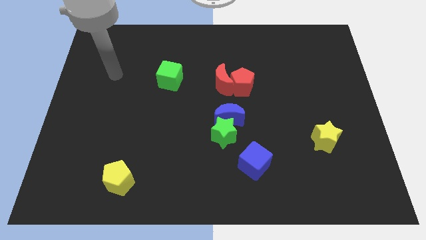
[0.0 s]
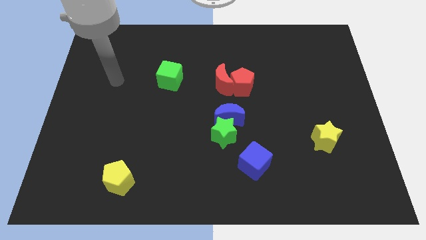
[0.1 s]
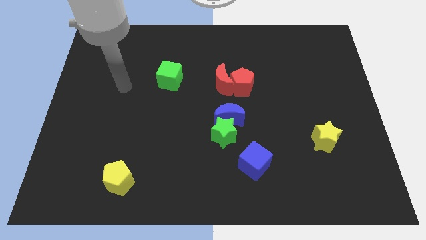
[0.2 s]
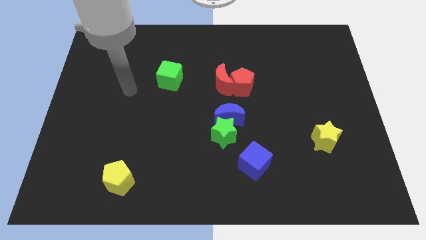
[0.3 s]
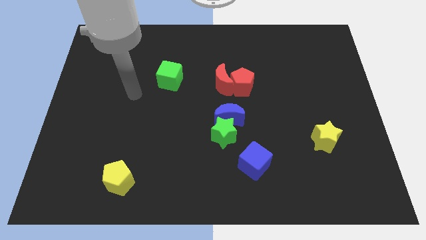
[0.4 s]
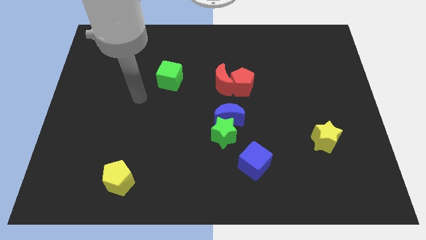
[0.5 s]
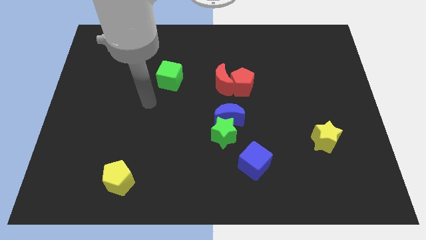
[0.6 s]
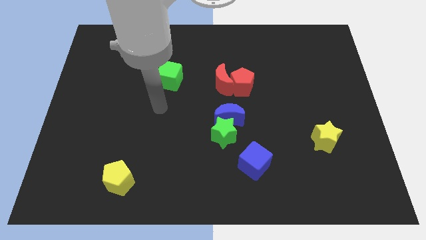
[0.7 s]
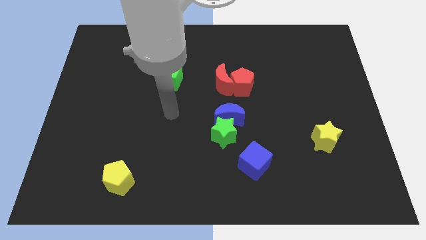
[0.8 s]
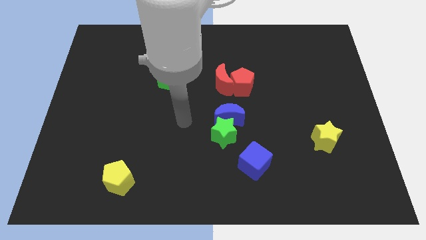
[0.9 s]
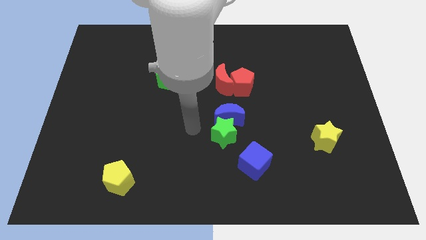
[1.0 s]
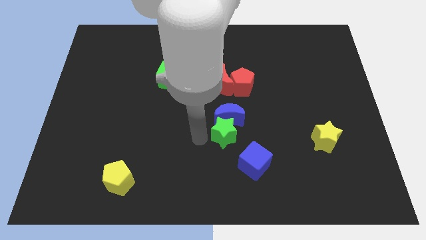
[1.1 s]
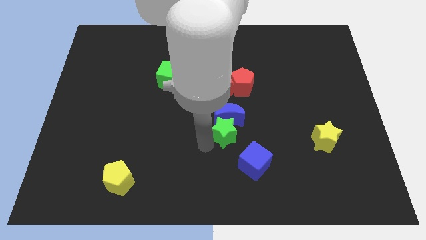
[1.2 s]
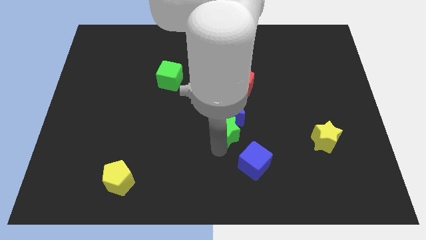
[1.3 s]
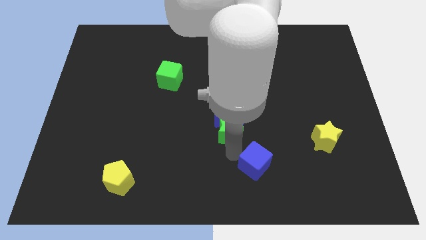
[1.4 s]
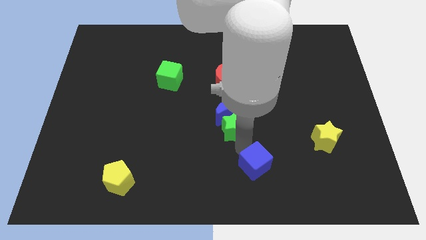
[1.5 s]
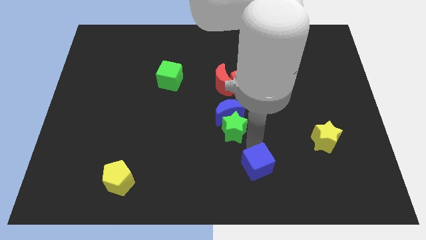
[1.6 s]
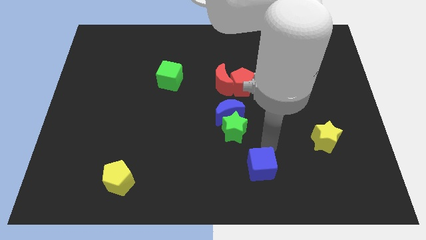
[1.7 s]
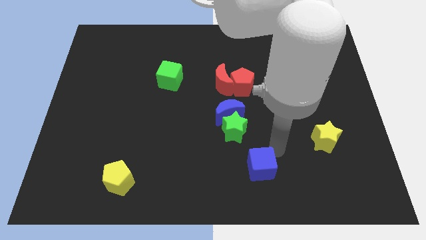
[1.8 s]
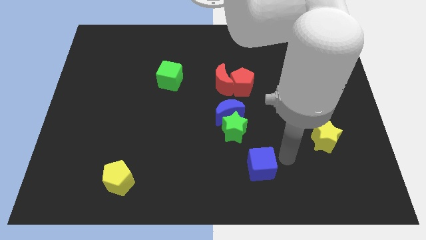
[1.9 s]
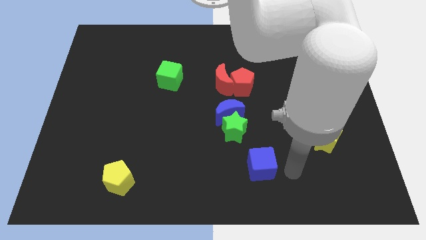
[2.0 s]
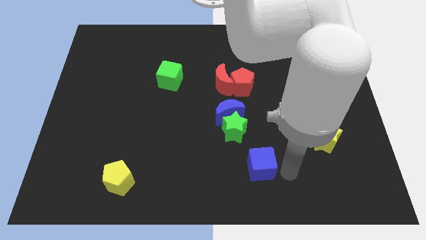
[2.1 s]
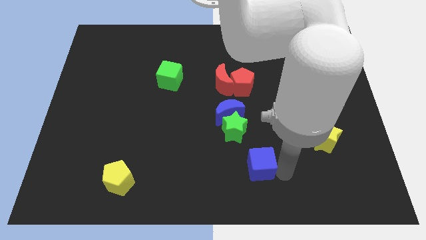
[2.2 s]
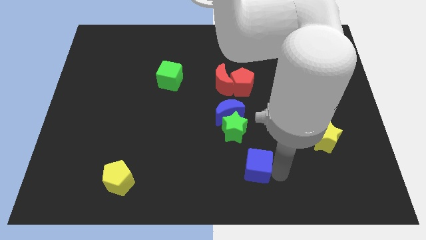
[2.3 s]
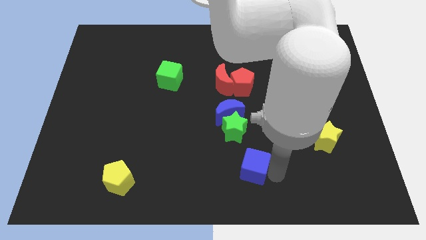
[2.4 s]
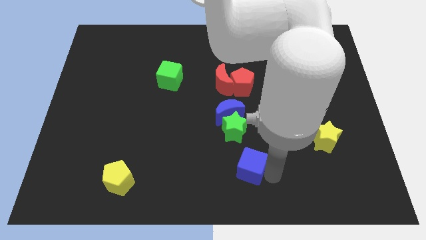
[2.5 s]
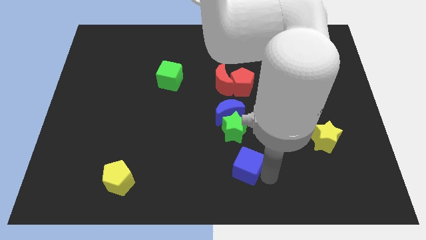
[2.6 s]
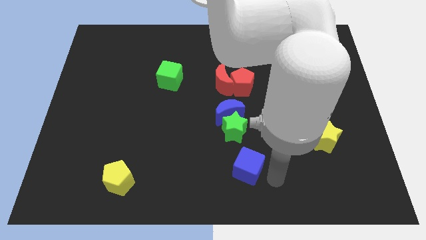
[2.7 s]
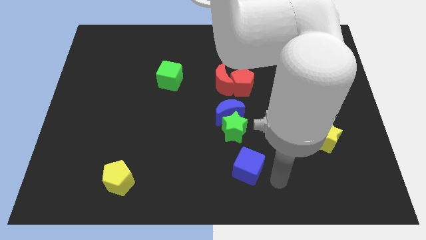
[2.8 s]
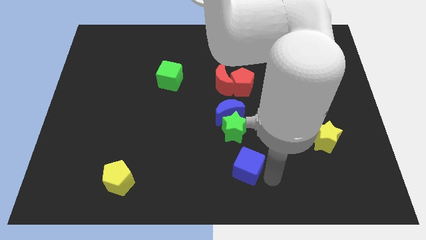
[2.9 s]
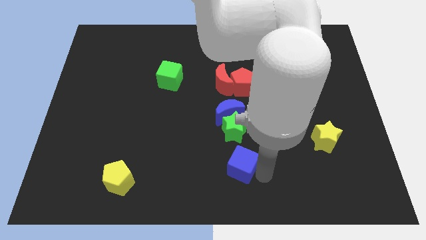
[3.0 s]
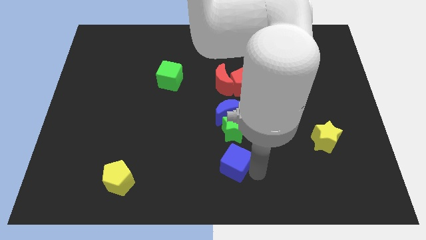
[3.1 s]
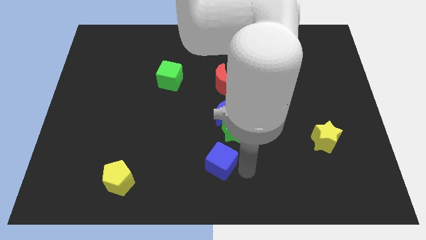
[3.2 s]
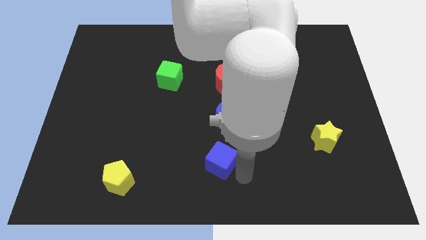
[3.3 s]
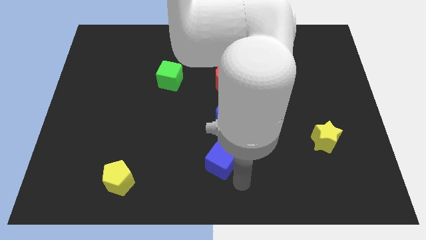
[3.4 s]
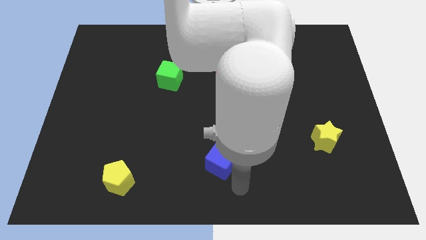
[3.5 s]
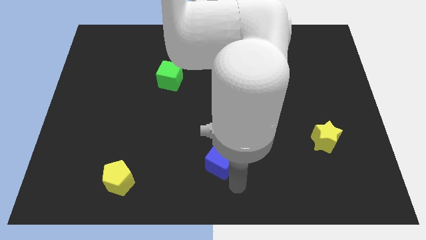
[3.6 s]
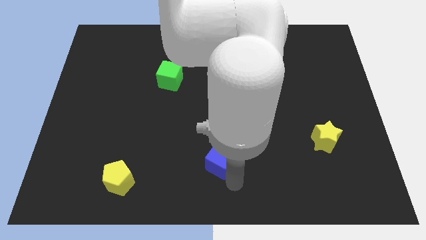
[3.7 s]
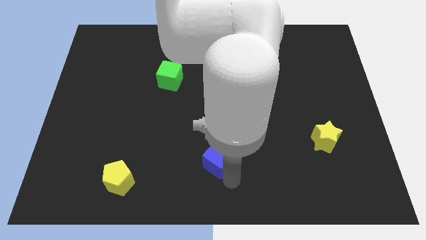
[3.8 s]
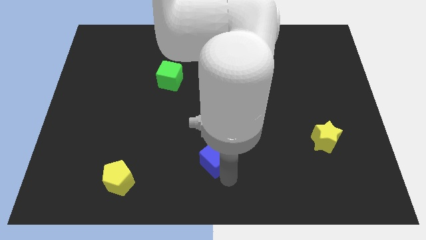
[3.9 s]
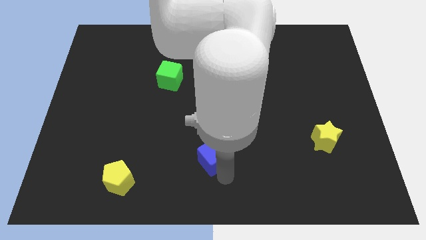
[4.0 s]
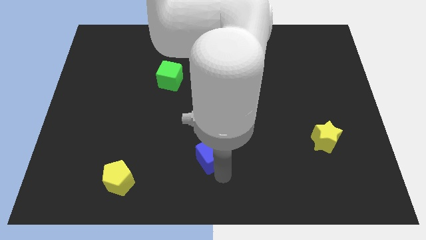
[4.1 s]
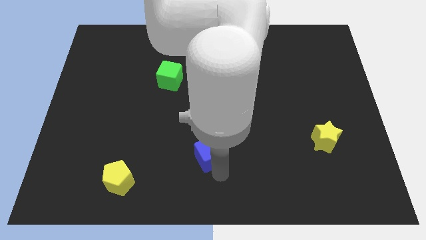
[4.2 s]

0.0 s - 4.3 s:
push the blue cube diagonally up and left slightly

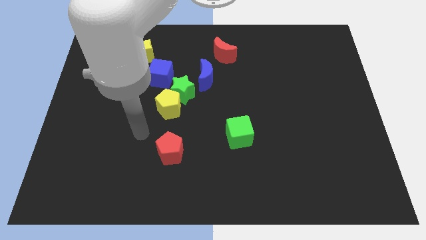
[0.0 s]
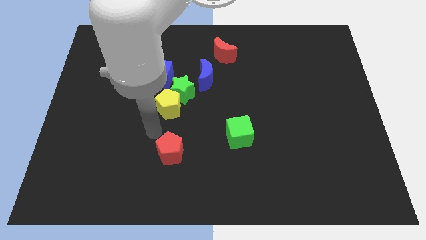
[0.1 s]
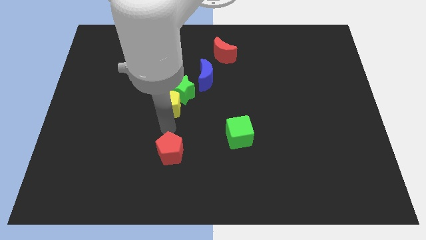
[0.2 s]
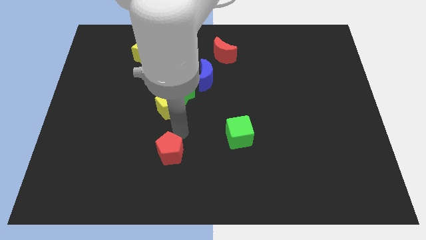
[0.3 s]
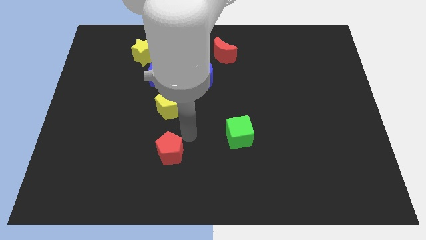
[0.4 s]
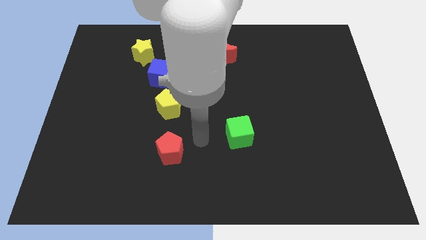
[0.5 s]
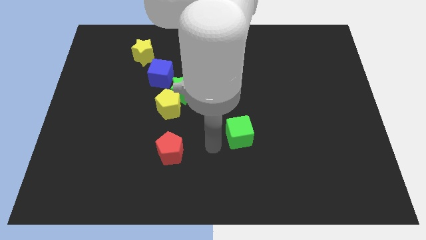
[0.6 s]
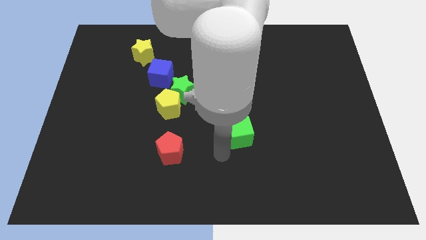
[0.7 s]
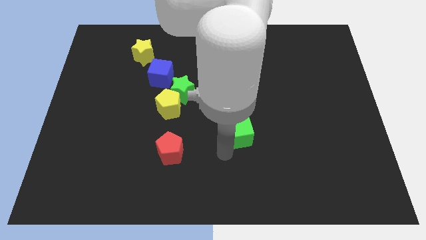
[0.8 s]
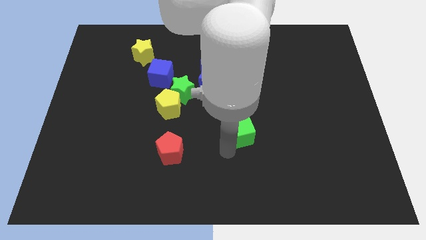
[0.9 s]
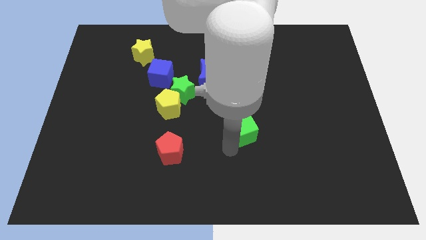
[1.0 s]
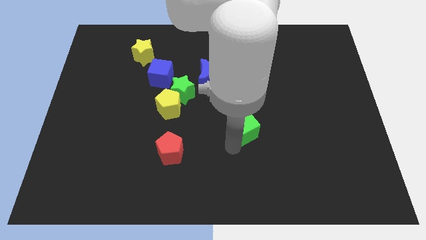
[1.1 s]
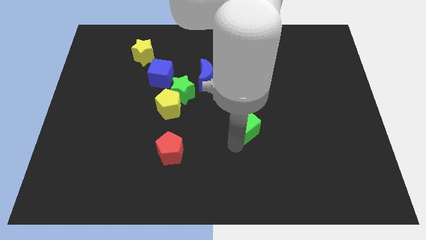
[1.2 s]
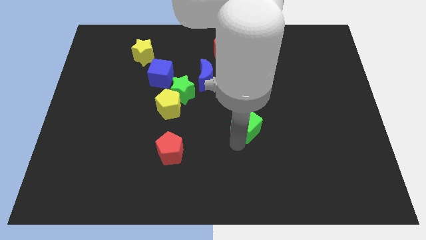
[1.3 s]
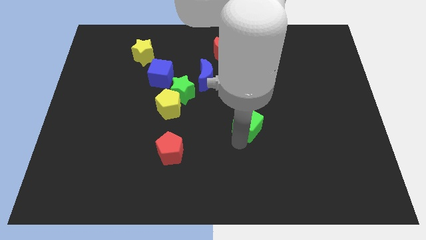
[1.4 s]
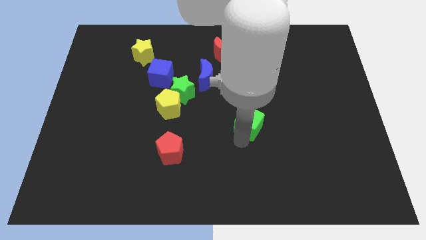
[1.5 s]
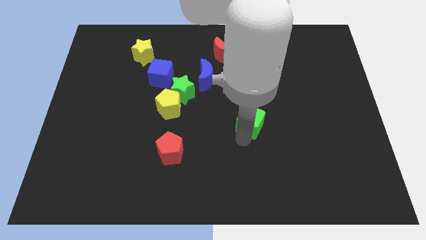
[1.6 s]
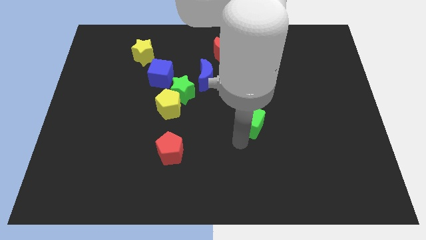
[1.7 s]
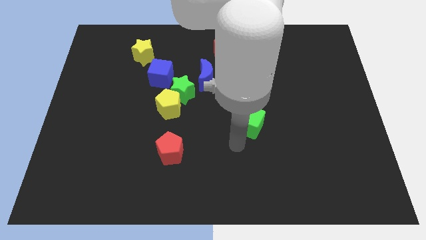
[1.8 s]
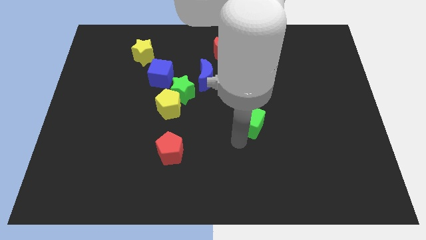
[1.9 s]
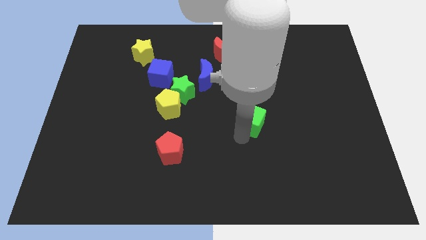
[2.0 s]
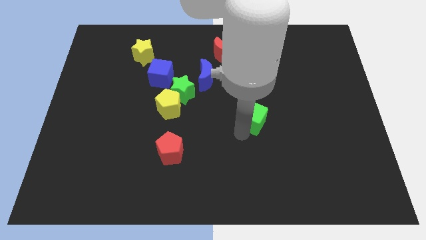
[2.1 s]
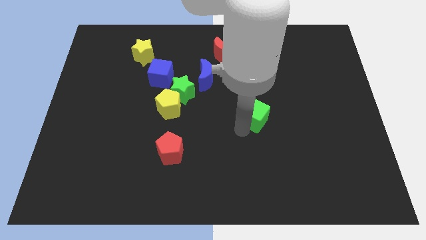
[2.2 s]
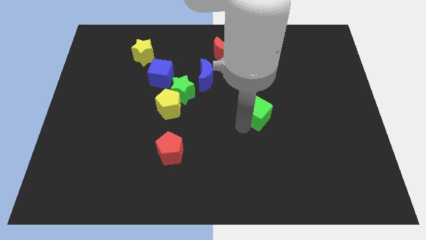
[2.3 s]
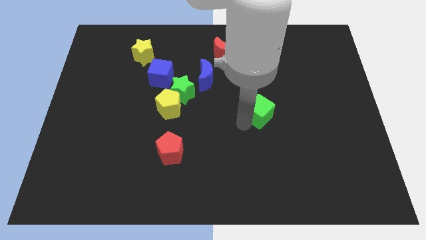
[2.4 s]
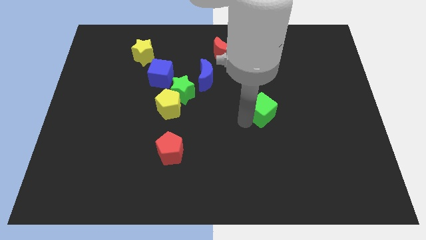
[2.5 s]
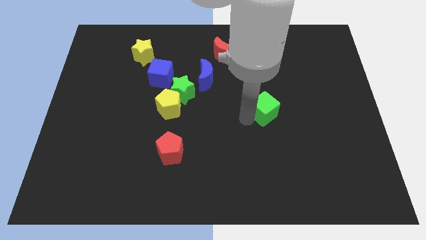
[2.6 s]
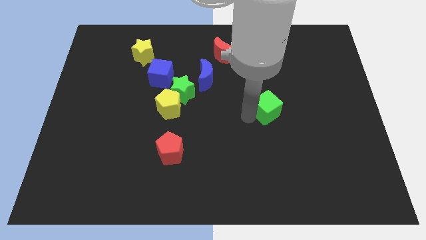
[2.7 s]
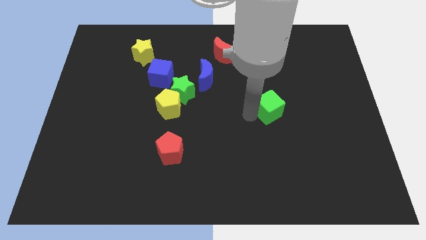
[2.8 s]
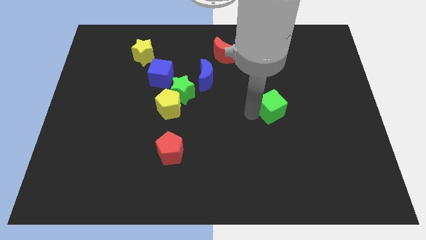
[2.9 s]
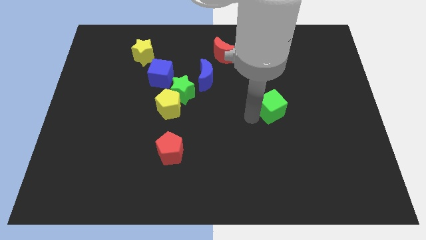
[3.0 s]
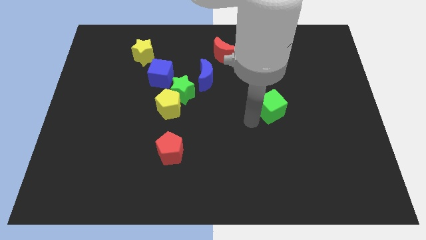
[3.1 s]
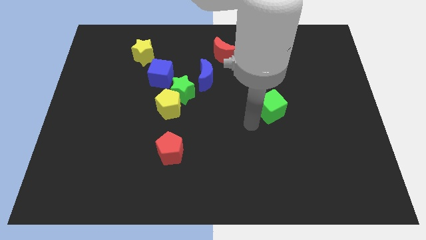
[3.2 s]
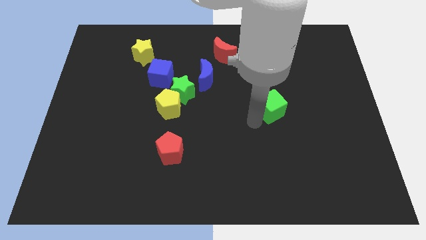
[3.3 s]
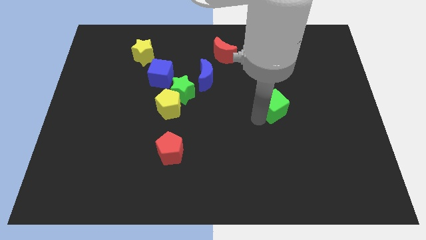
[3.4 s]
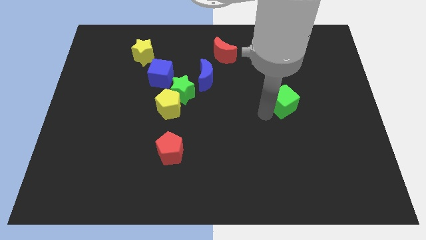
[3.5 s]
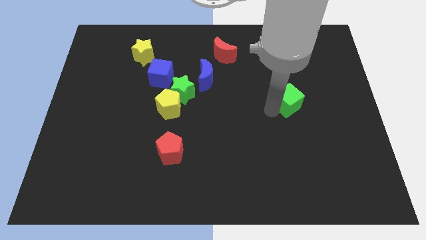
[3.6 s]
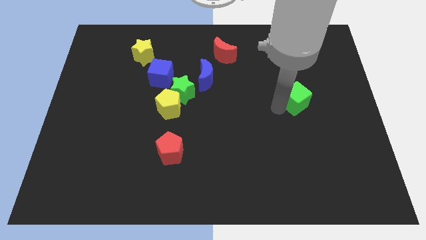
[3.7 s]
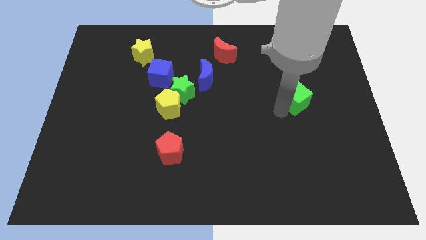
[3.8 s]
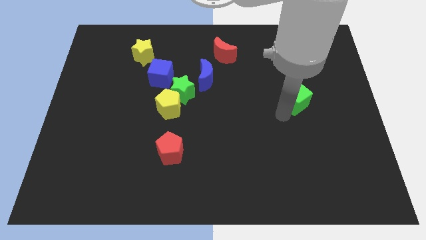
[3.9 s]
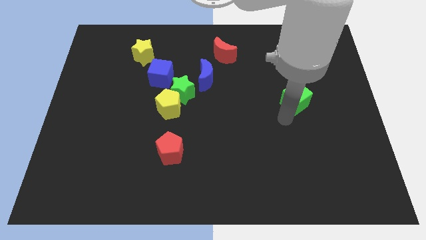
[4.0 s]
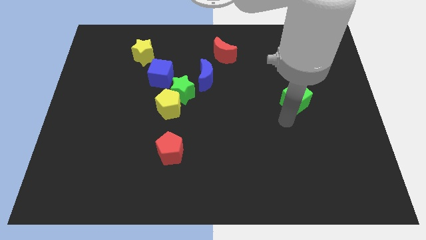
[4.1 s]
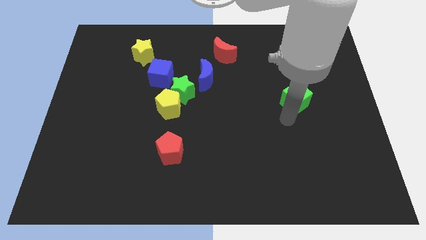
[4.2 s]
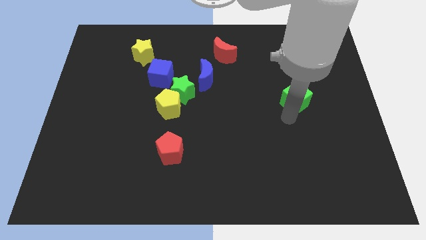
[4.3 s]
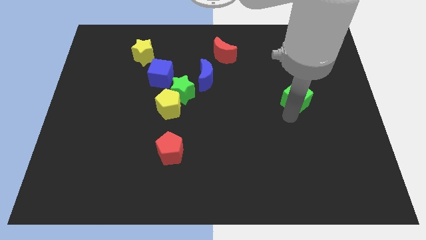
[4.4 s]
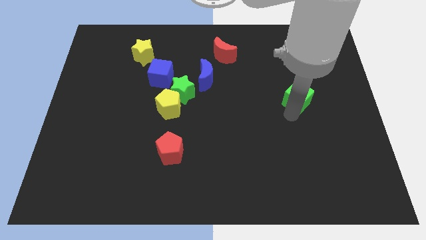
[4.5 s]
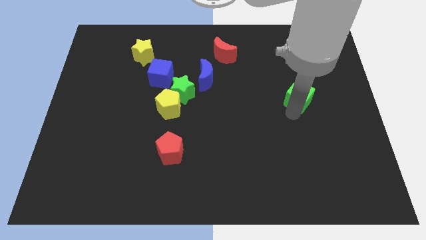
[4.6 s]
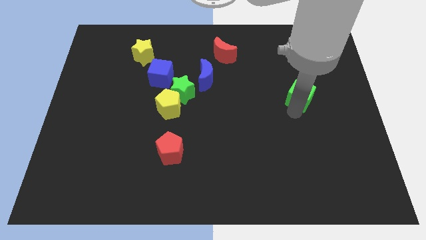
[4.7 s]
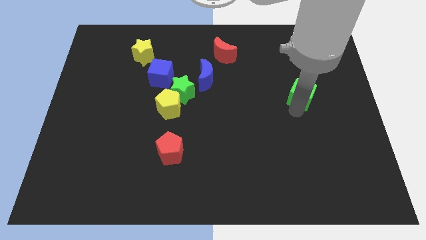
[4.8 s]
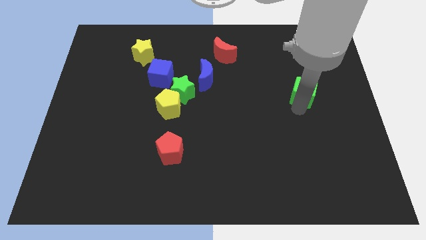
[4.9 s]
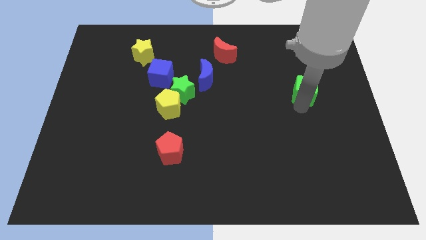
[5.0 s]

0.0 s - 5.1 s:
push the green cube up and to the right diagonally
